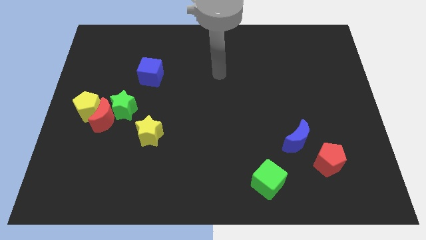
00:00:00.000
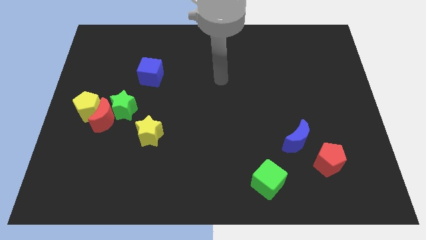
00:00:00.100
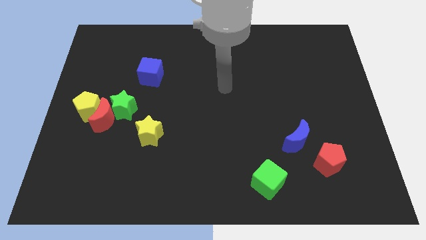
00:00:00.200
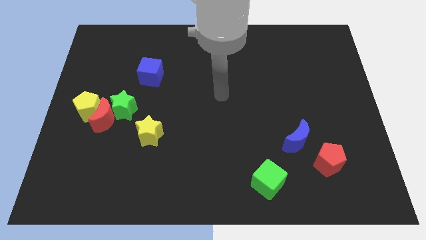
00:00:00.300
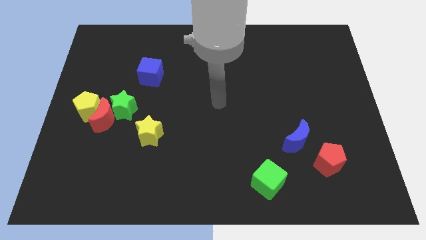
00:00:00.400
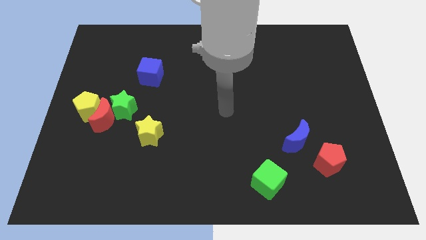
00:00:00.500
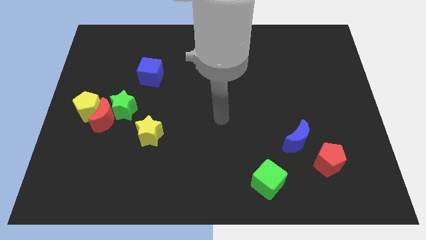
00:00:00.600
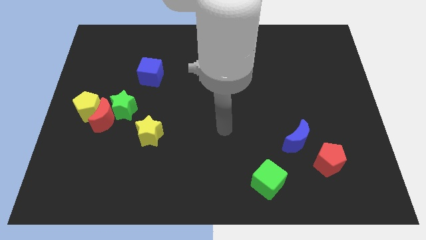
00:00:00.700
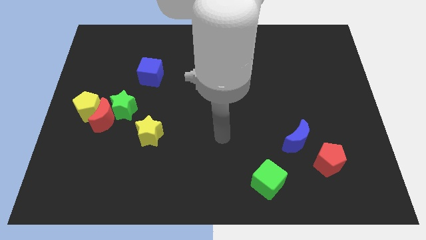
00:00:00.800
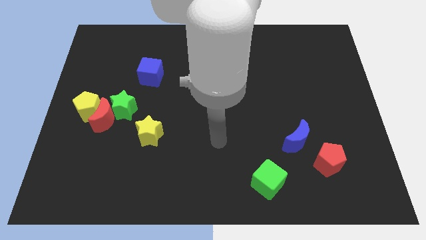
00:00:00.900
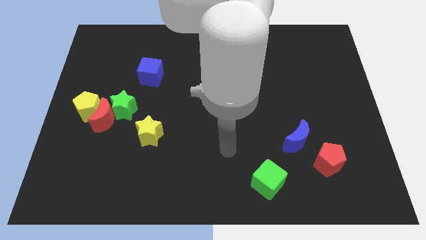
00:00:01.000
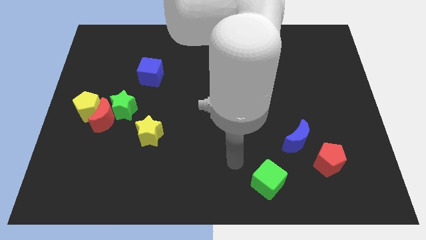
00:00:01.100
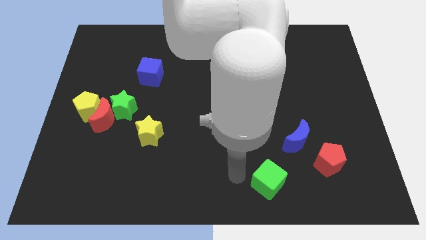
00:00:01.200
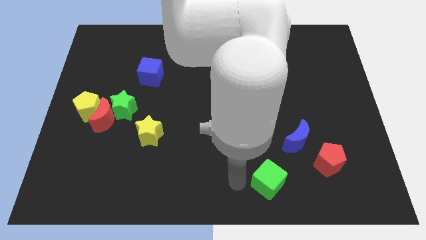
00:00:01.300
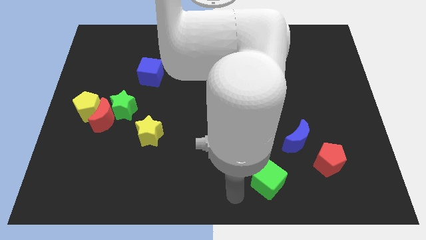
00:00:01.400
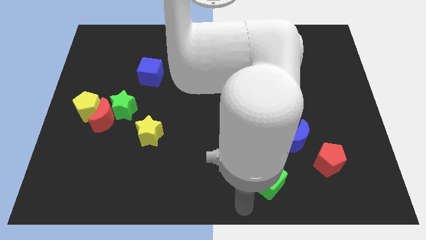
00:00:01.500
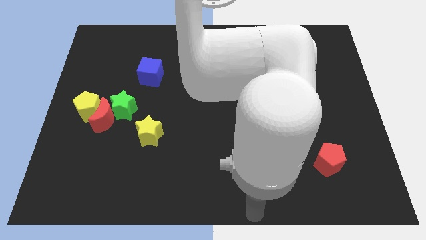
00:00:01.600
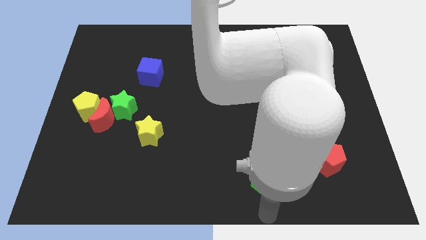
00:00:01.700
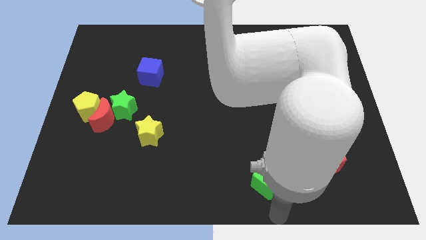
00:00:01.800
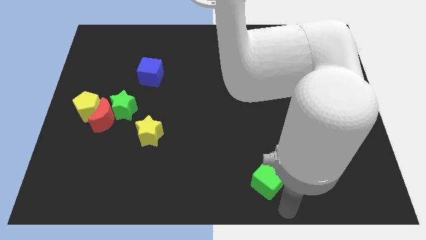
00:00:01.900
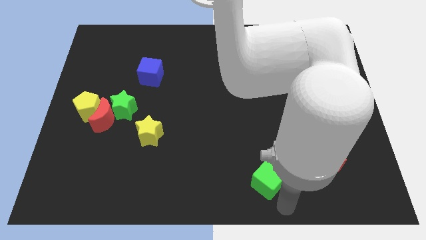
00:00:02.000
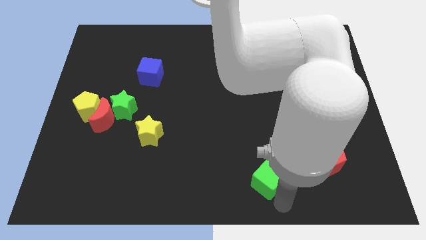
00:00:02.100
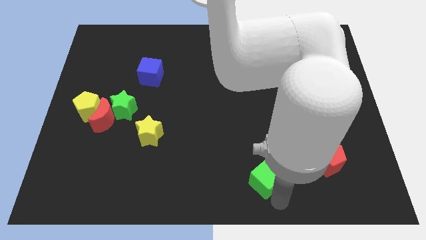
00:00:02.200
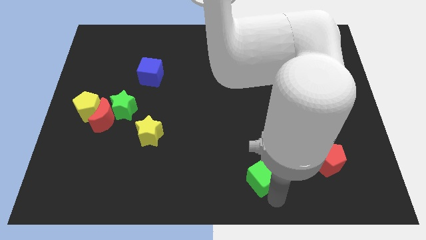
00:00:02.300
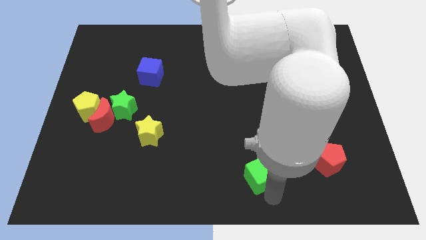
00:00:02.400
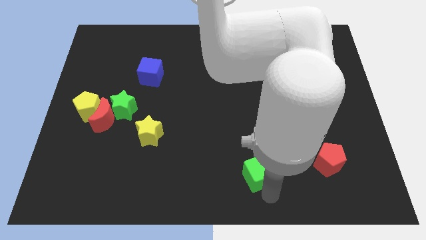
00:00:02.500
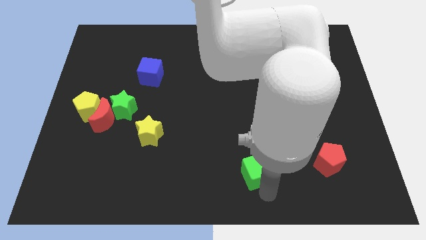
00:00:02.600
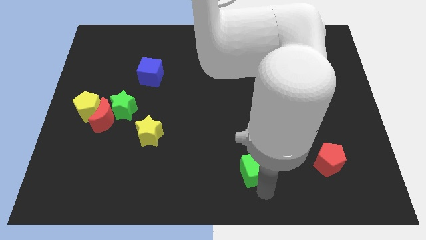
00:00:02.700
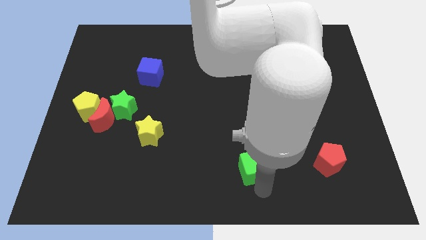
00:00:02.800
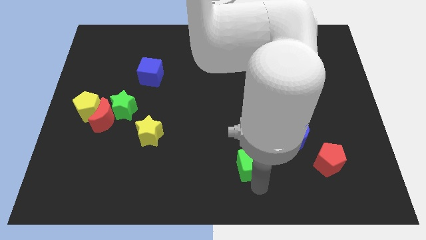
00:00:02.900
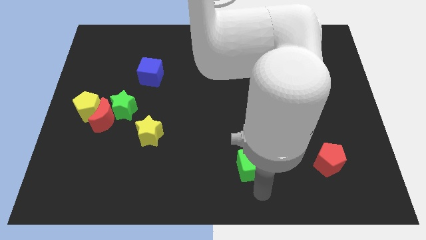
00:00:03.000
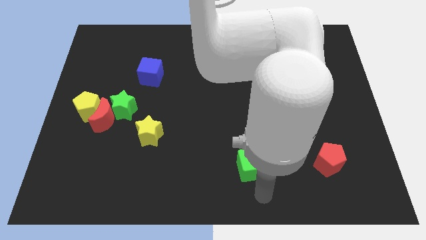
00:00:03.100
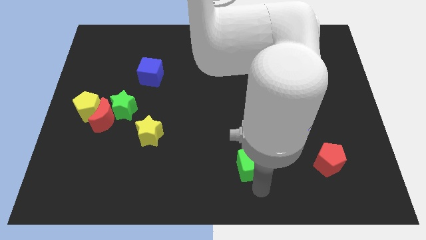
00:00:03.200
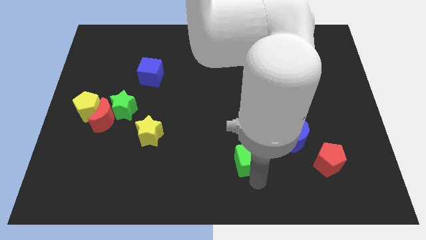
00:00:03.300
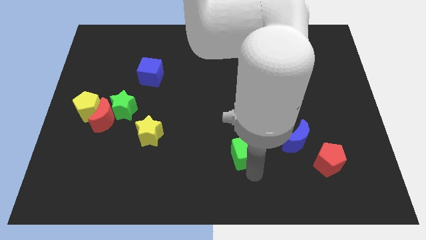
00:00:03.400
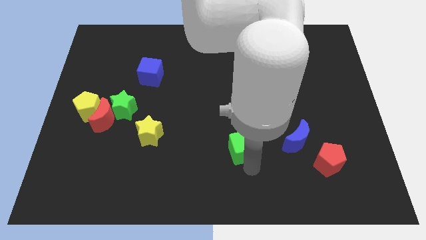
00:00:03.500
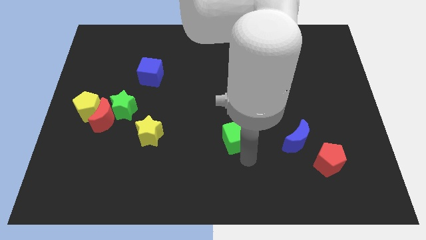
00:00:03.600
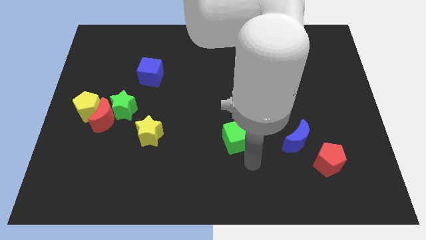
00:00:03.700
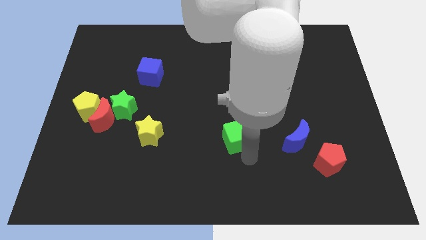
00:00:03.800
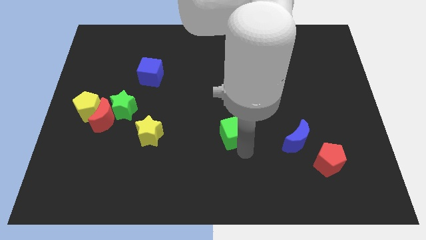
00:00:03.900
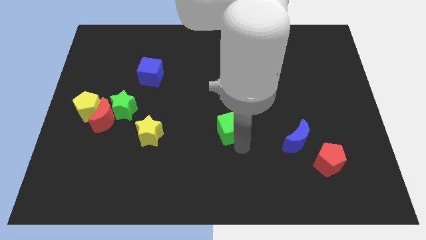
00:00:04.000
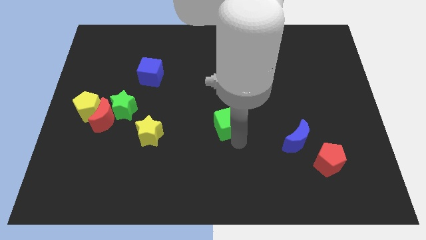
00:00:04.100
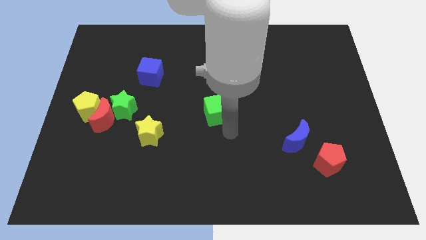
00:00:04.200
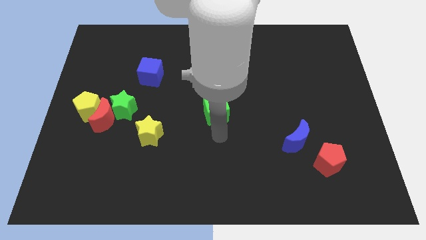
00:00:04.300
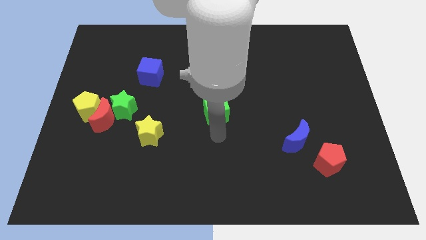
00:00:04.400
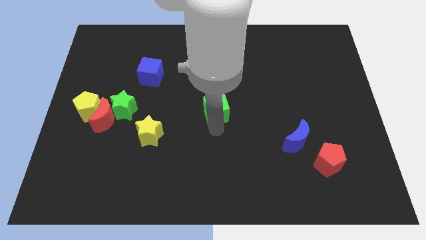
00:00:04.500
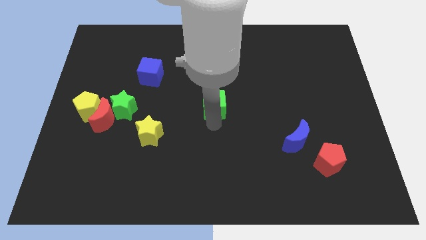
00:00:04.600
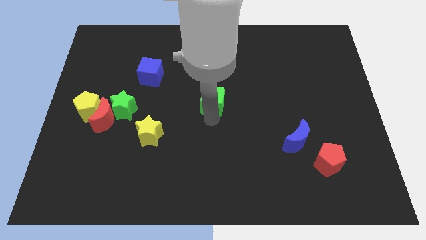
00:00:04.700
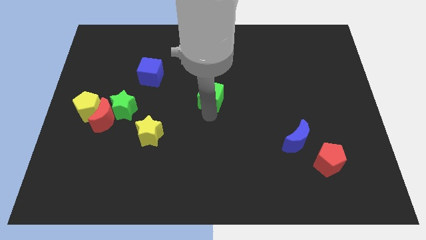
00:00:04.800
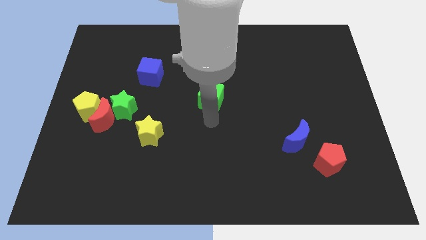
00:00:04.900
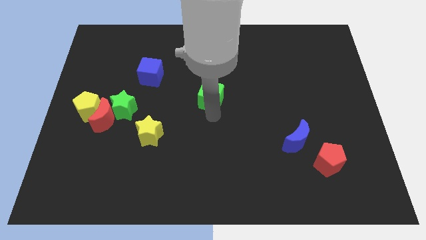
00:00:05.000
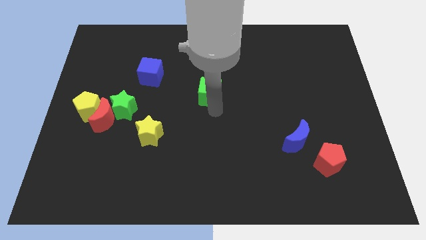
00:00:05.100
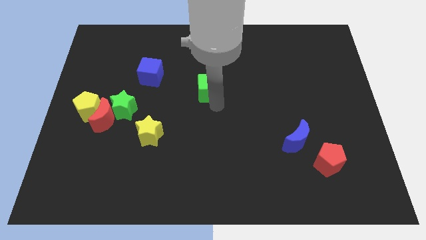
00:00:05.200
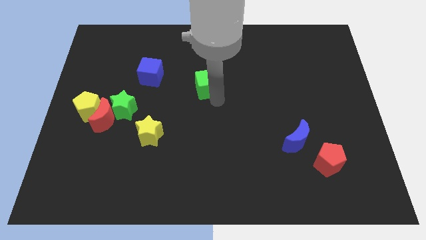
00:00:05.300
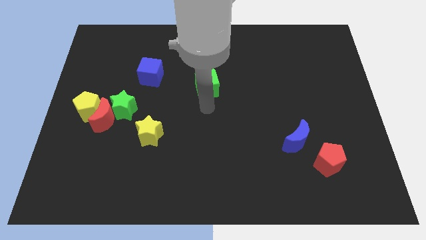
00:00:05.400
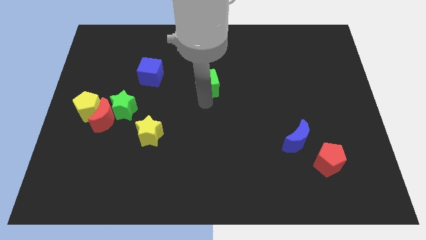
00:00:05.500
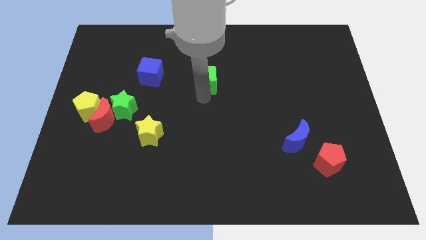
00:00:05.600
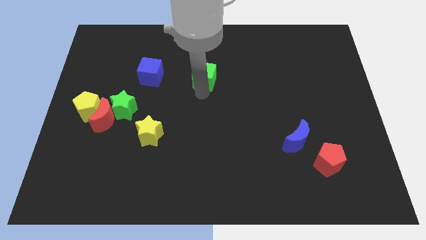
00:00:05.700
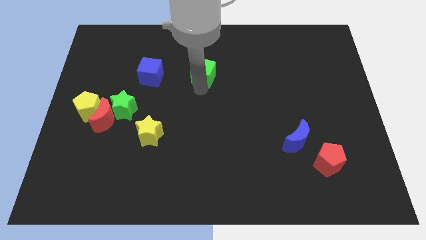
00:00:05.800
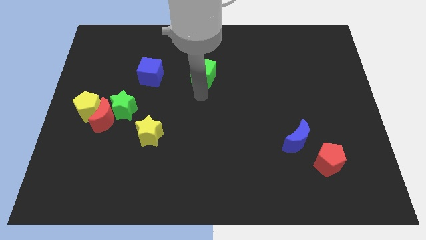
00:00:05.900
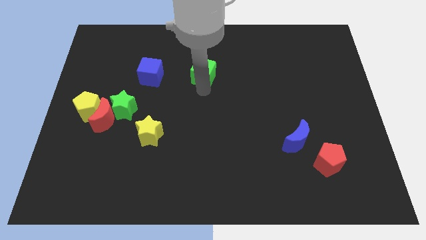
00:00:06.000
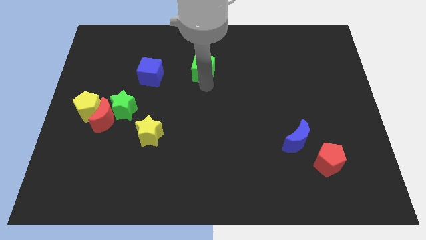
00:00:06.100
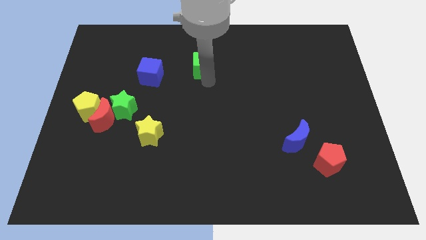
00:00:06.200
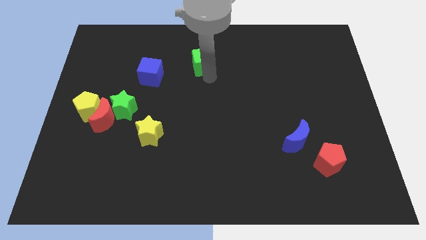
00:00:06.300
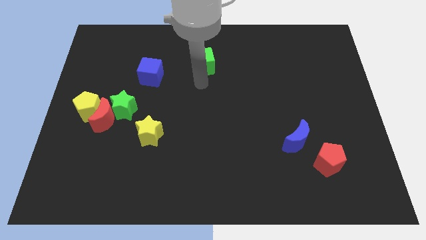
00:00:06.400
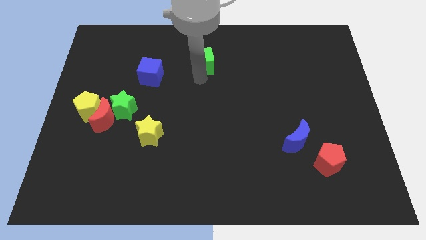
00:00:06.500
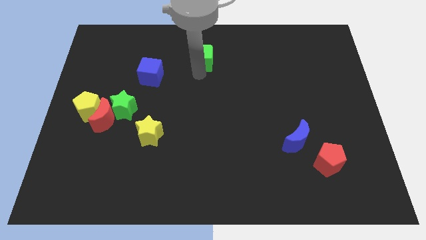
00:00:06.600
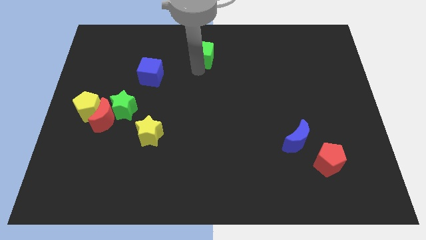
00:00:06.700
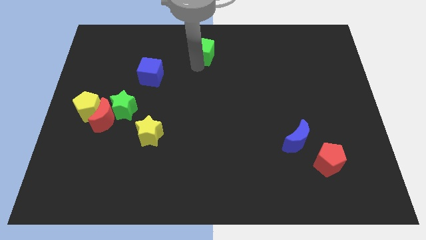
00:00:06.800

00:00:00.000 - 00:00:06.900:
slide the green cube to the top
